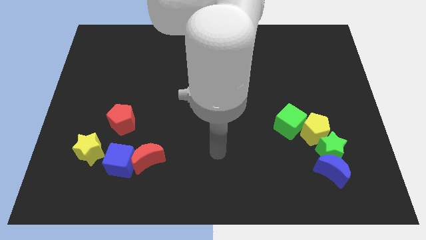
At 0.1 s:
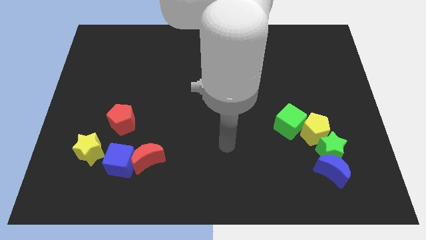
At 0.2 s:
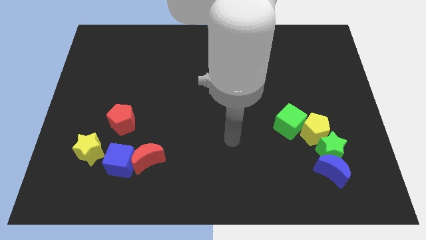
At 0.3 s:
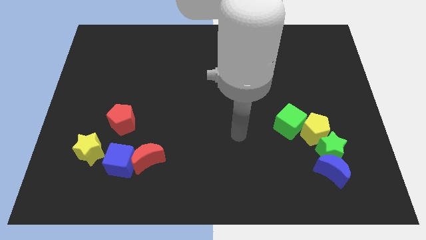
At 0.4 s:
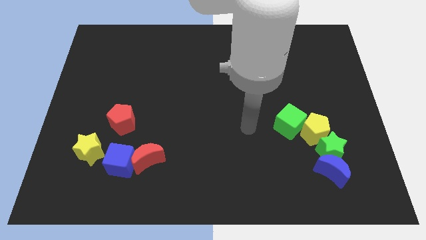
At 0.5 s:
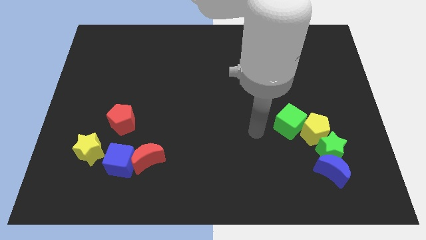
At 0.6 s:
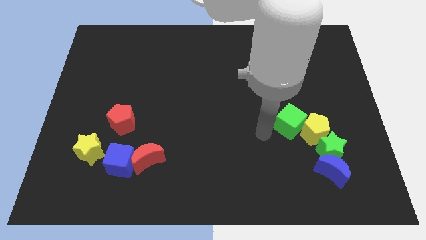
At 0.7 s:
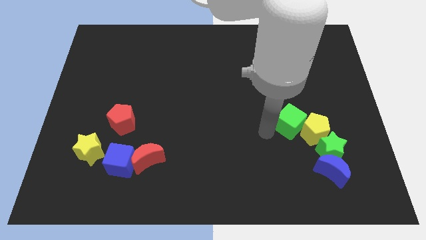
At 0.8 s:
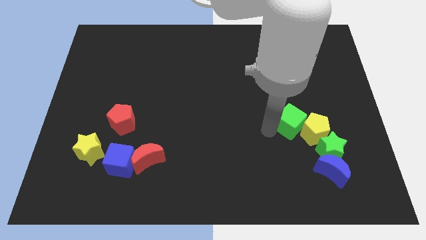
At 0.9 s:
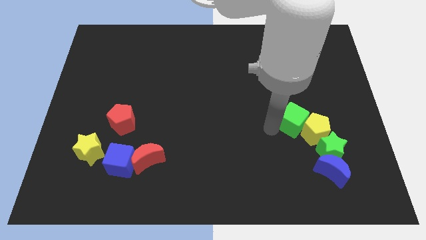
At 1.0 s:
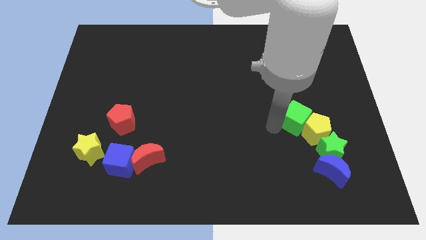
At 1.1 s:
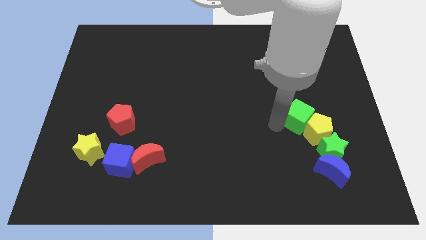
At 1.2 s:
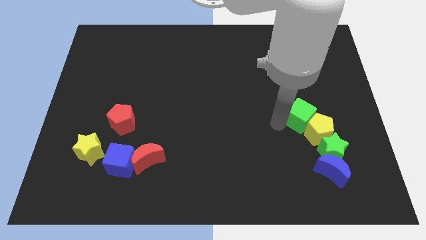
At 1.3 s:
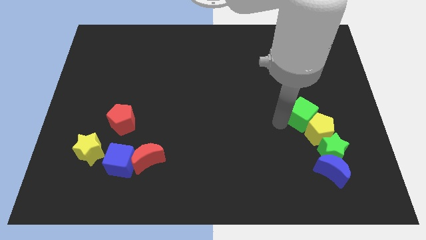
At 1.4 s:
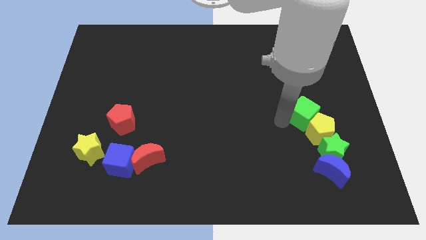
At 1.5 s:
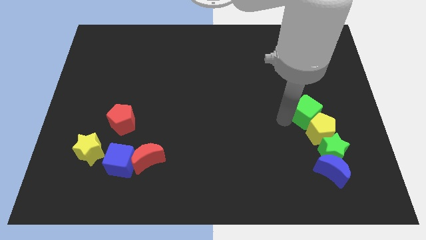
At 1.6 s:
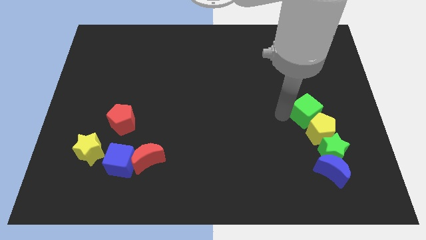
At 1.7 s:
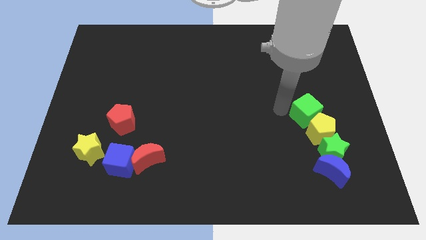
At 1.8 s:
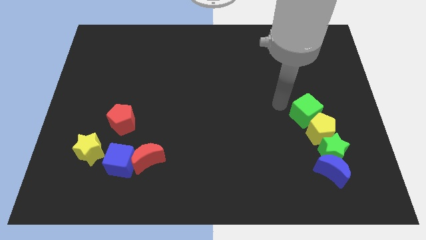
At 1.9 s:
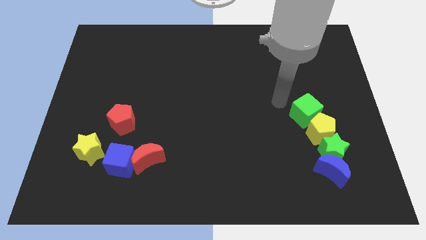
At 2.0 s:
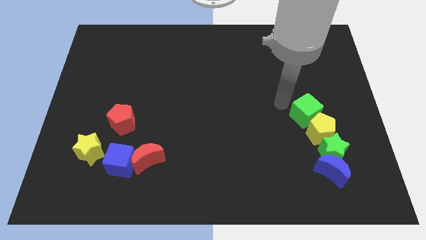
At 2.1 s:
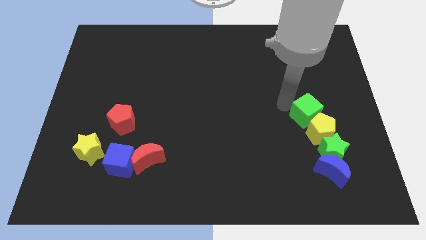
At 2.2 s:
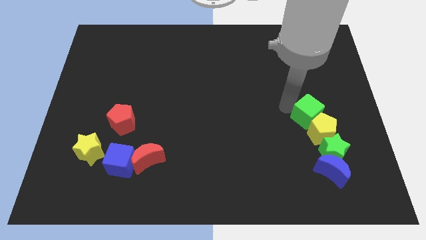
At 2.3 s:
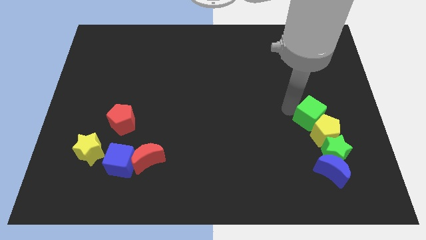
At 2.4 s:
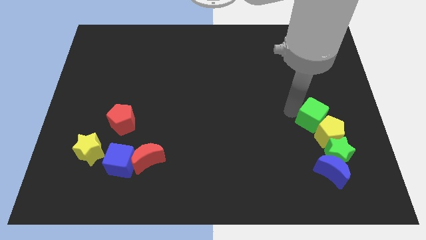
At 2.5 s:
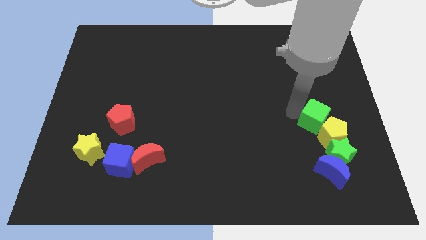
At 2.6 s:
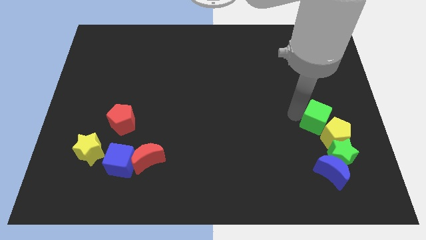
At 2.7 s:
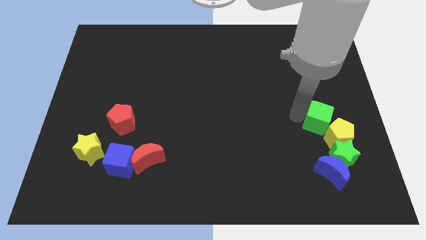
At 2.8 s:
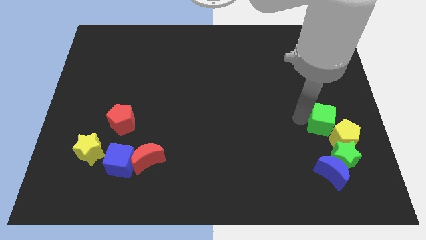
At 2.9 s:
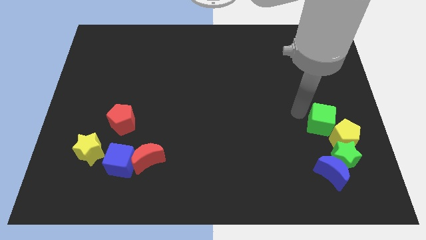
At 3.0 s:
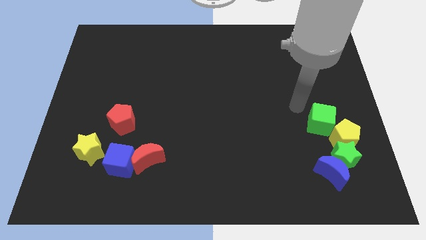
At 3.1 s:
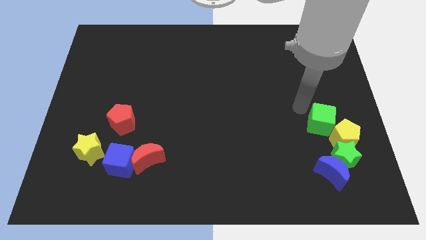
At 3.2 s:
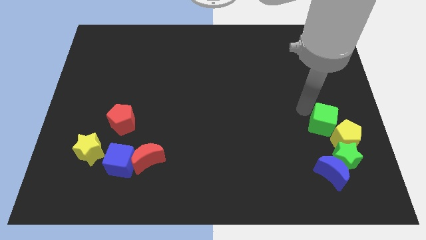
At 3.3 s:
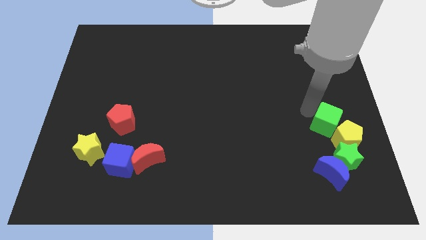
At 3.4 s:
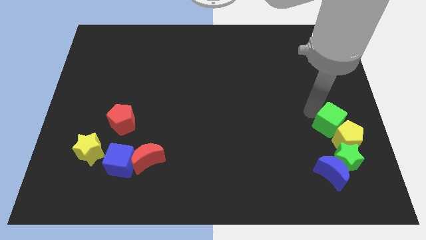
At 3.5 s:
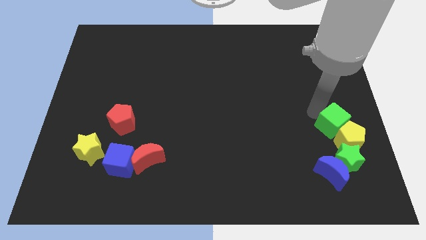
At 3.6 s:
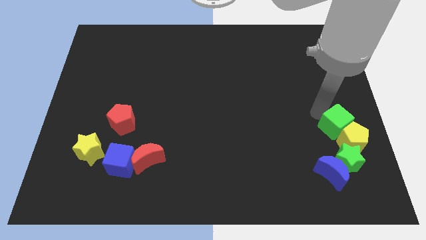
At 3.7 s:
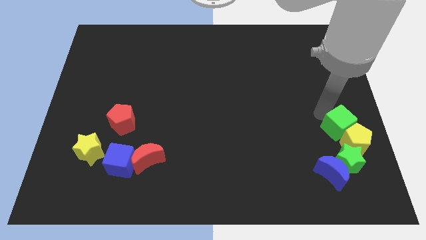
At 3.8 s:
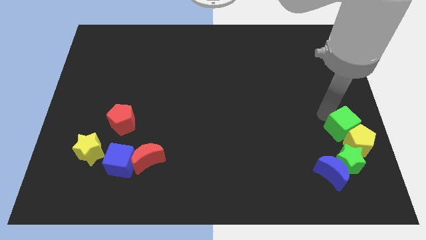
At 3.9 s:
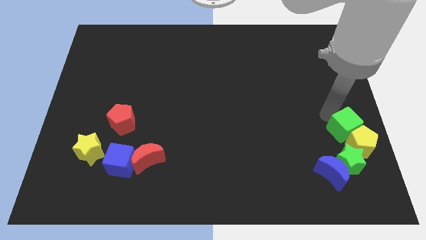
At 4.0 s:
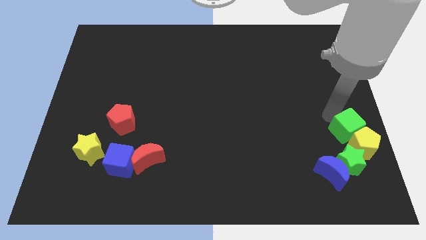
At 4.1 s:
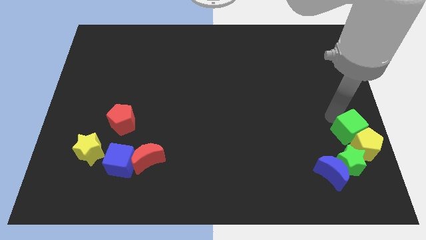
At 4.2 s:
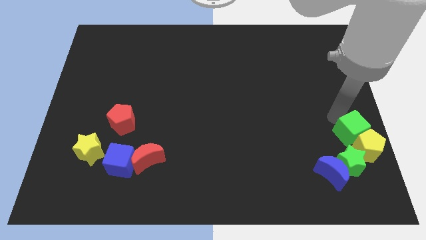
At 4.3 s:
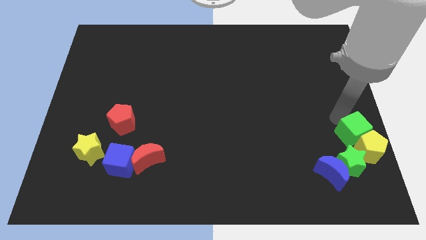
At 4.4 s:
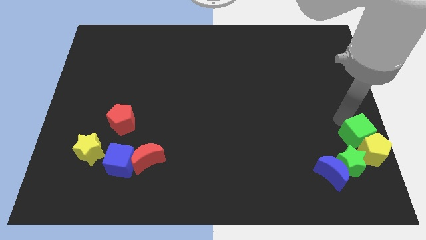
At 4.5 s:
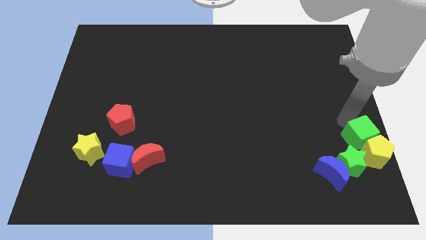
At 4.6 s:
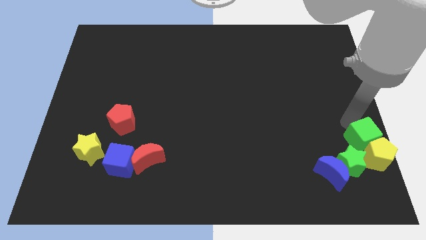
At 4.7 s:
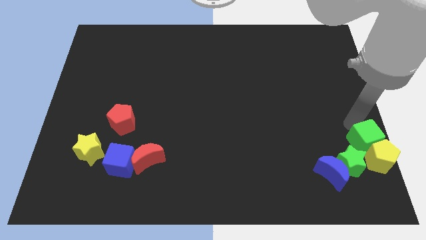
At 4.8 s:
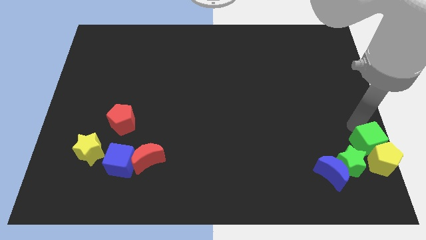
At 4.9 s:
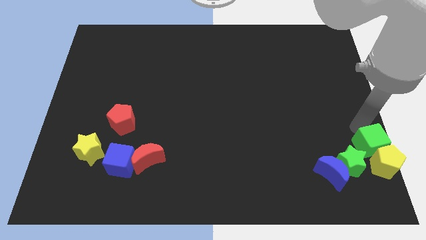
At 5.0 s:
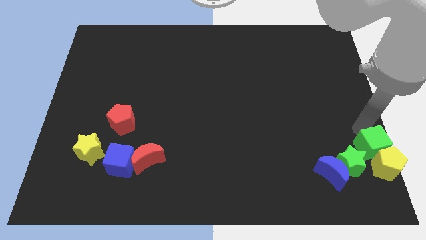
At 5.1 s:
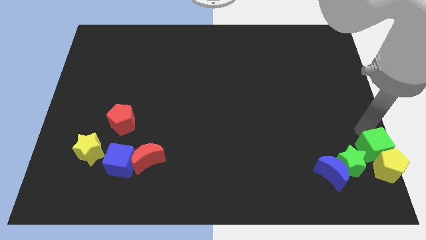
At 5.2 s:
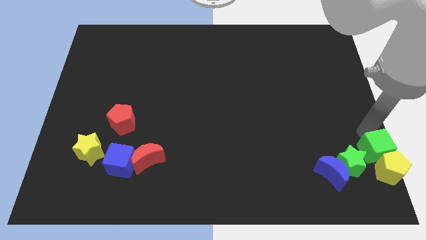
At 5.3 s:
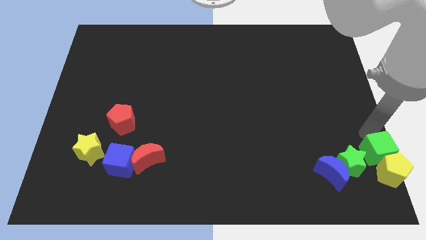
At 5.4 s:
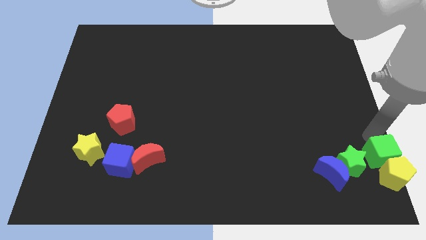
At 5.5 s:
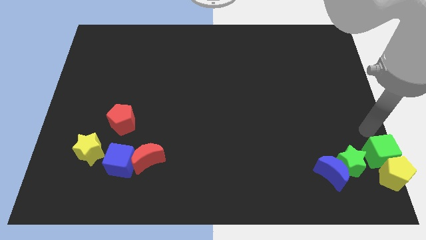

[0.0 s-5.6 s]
put the green cube to the lower right corner

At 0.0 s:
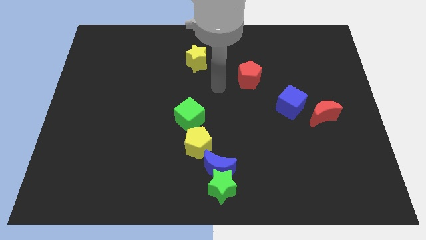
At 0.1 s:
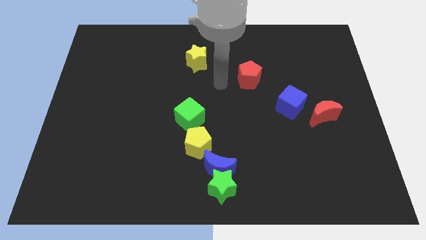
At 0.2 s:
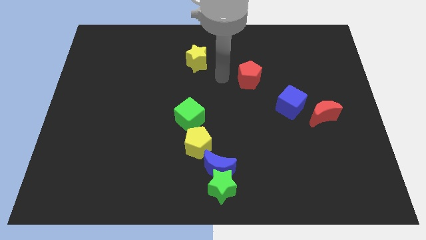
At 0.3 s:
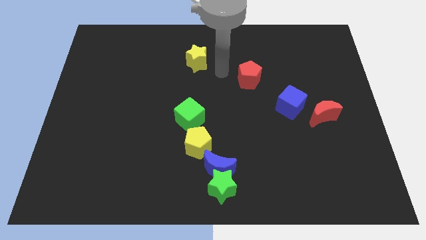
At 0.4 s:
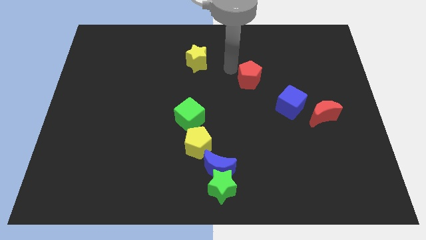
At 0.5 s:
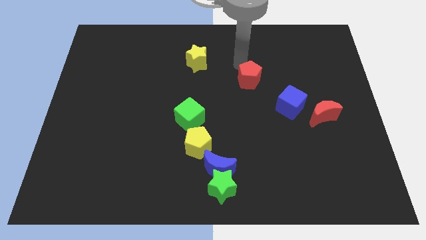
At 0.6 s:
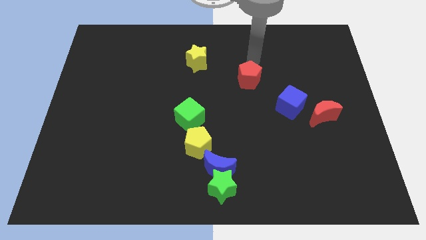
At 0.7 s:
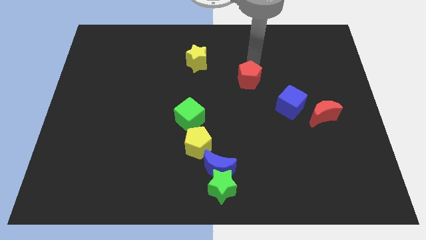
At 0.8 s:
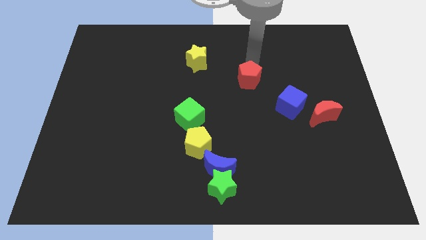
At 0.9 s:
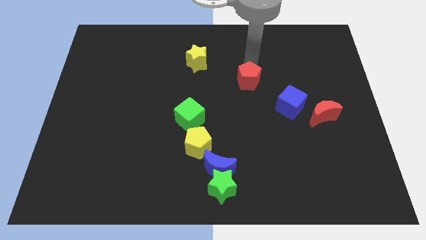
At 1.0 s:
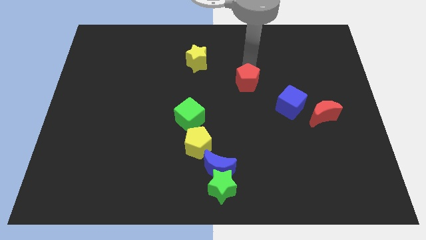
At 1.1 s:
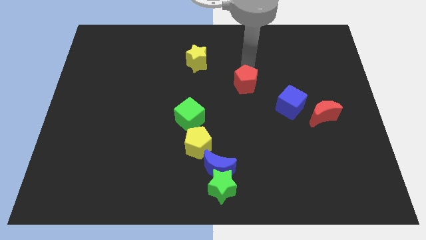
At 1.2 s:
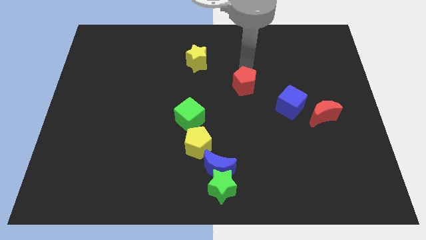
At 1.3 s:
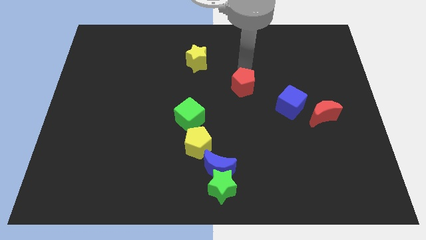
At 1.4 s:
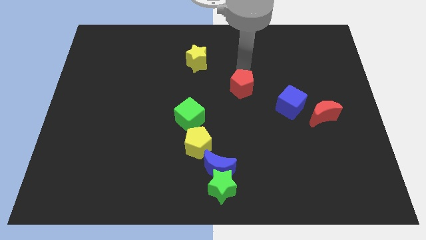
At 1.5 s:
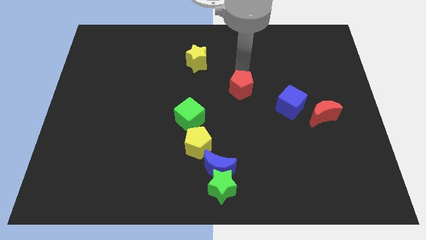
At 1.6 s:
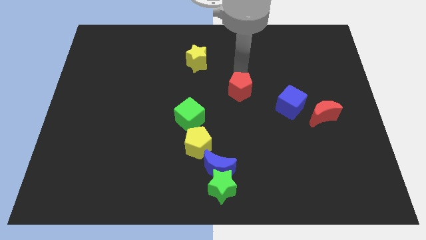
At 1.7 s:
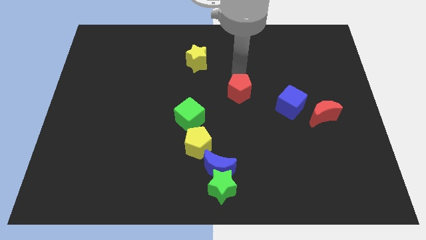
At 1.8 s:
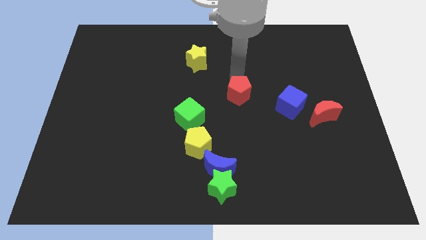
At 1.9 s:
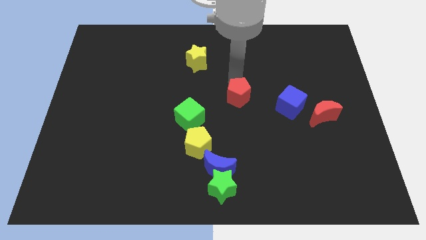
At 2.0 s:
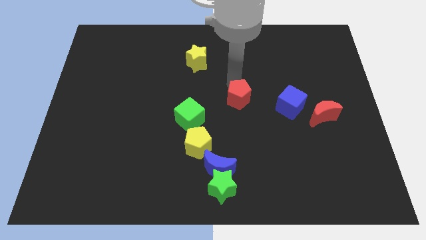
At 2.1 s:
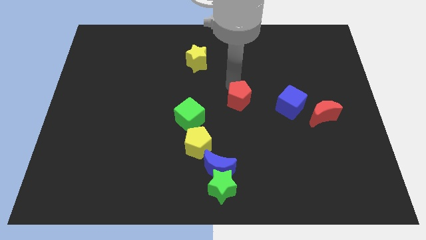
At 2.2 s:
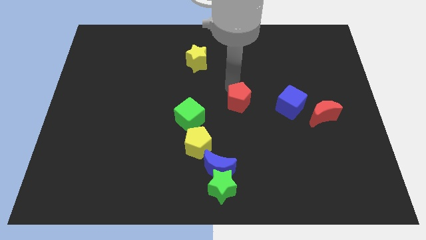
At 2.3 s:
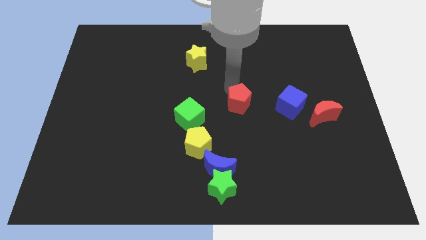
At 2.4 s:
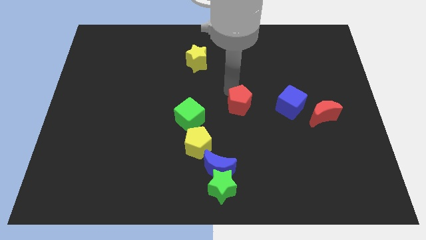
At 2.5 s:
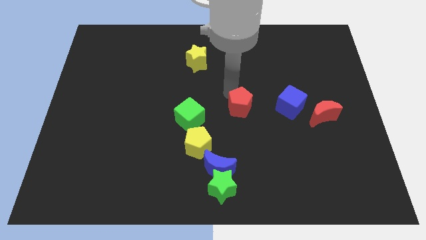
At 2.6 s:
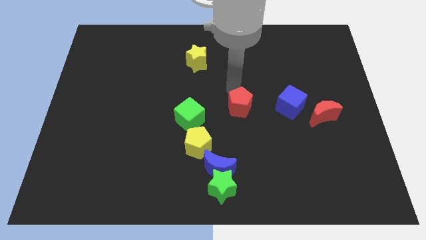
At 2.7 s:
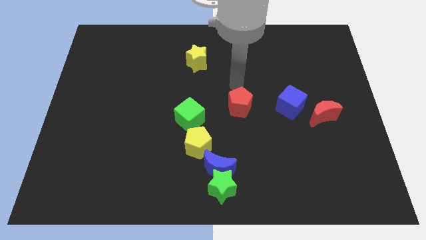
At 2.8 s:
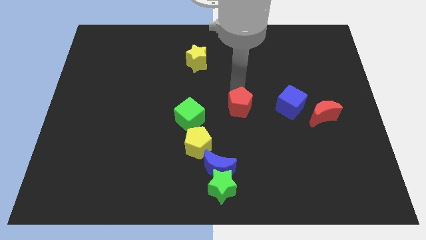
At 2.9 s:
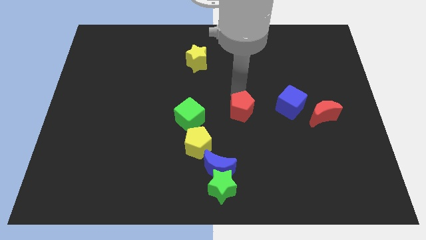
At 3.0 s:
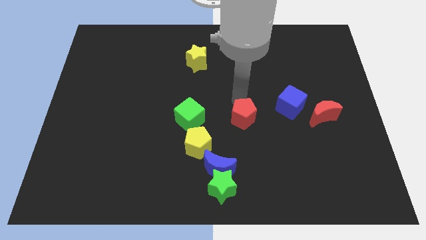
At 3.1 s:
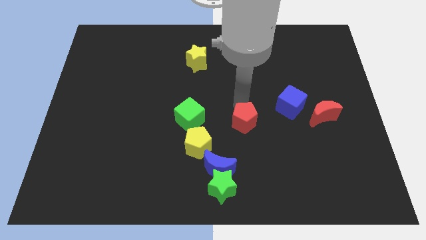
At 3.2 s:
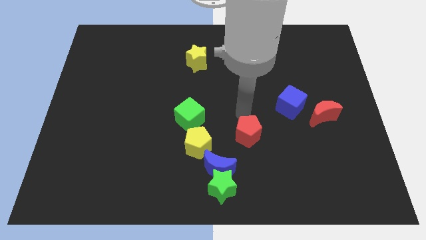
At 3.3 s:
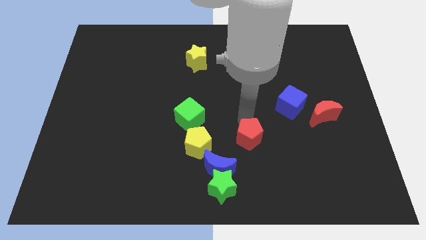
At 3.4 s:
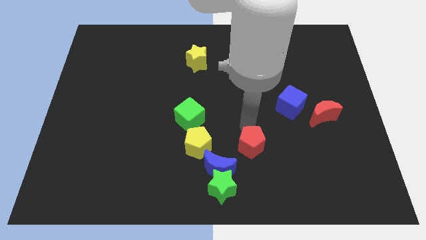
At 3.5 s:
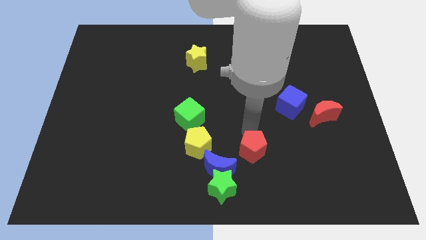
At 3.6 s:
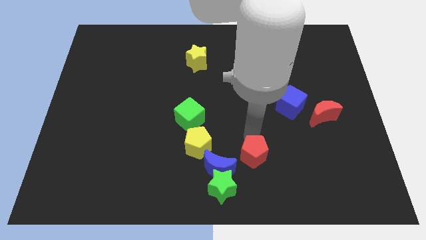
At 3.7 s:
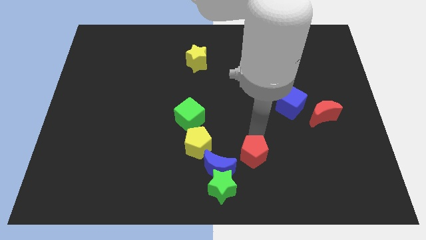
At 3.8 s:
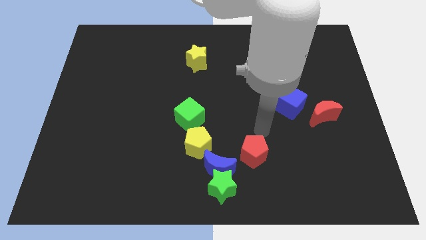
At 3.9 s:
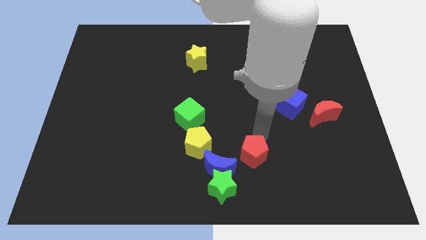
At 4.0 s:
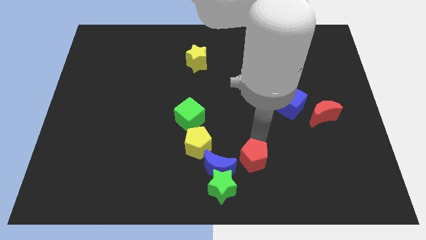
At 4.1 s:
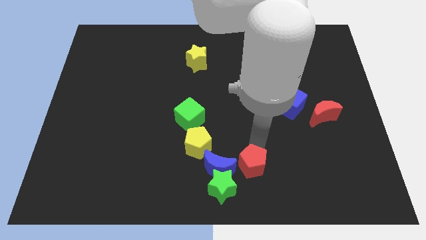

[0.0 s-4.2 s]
slide the red pentagon to the bottom side
